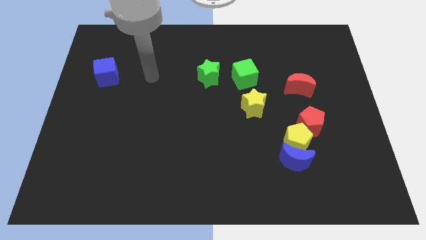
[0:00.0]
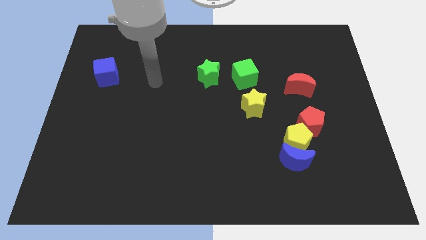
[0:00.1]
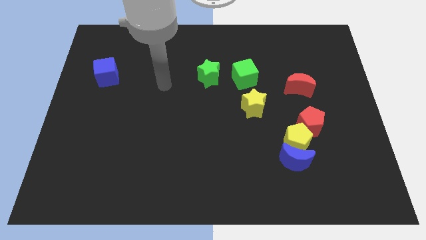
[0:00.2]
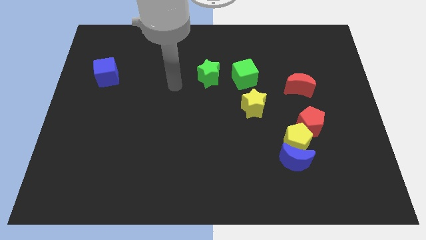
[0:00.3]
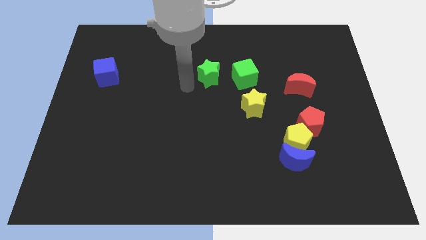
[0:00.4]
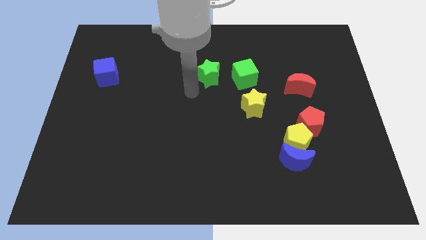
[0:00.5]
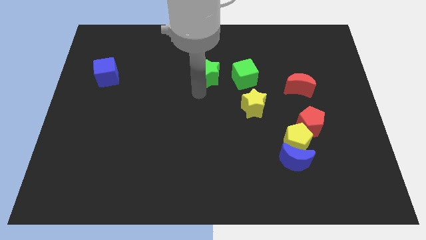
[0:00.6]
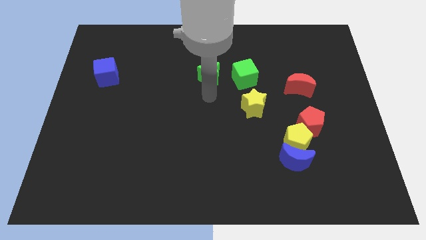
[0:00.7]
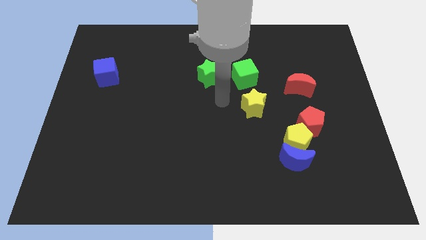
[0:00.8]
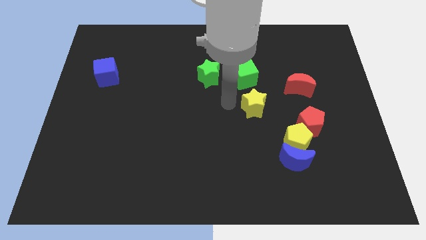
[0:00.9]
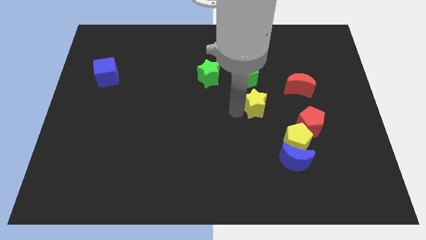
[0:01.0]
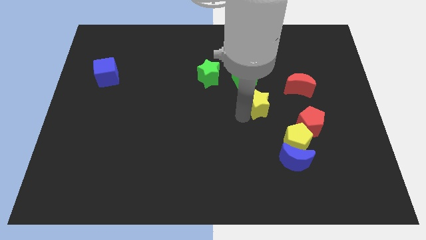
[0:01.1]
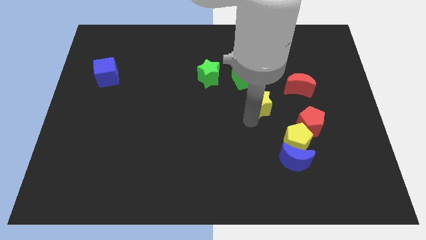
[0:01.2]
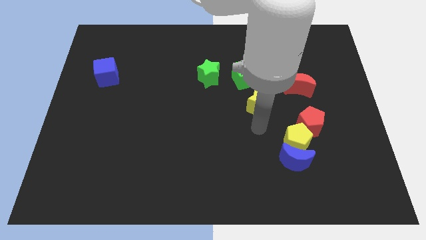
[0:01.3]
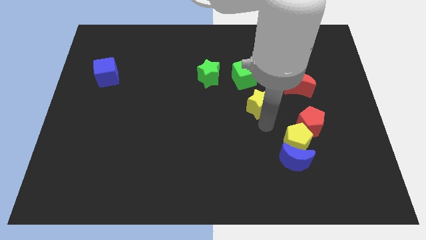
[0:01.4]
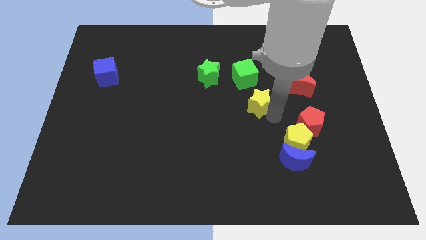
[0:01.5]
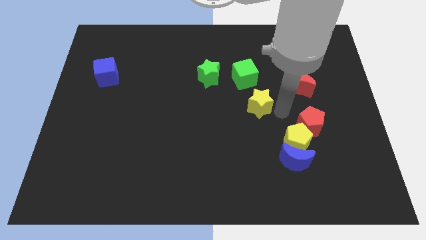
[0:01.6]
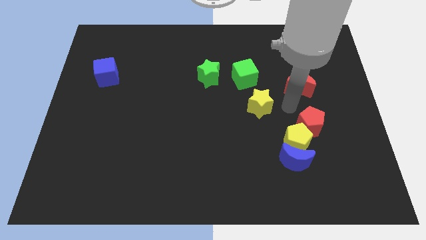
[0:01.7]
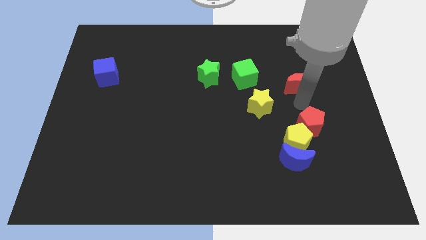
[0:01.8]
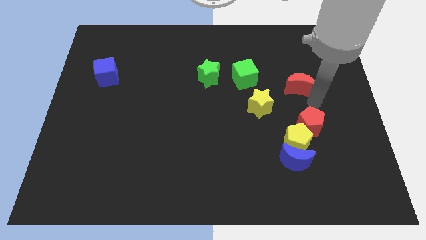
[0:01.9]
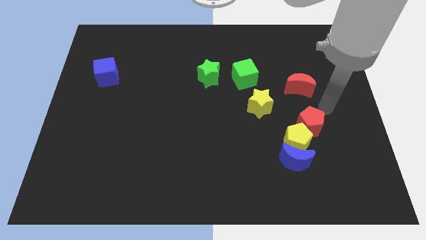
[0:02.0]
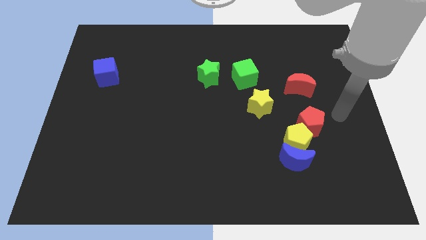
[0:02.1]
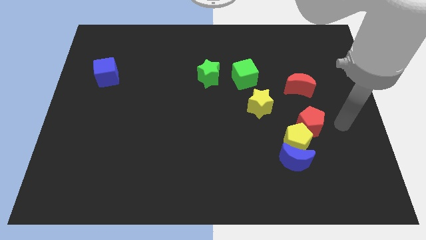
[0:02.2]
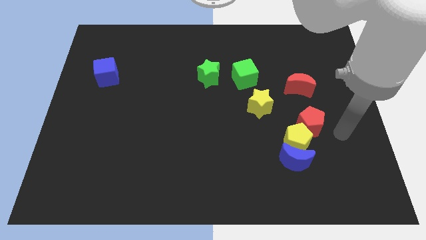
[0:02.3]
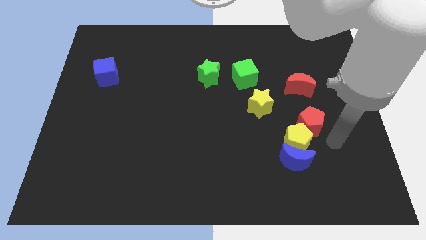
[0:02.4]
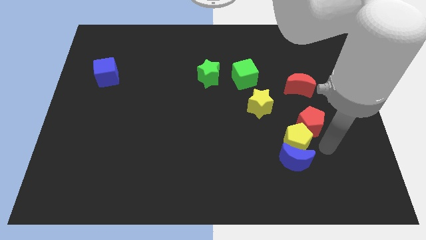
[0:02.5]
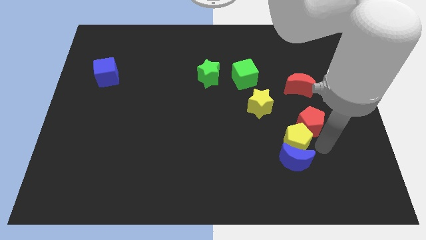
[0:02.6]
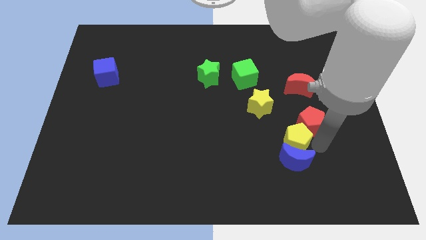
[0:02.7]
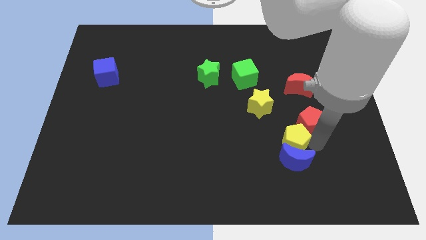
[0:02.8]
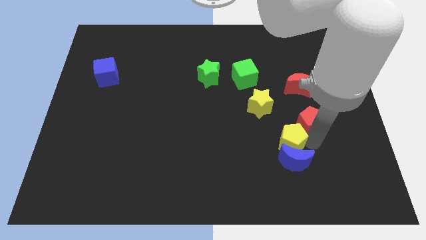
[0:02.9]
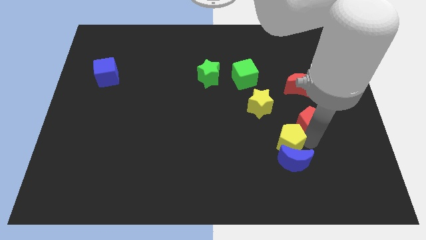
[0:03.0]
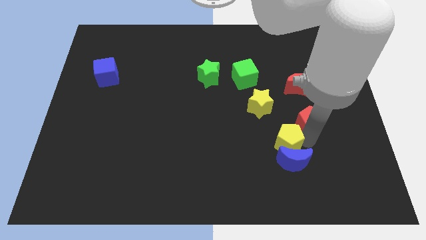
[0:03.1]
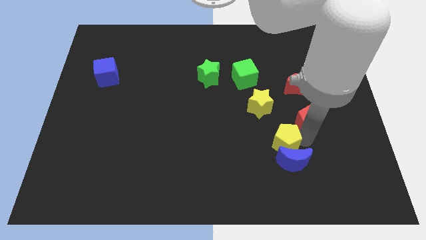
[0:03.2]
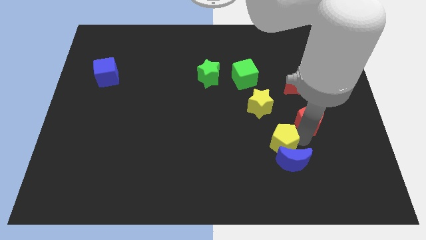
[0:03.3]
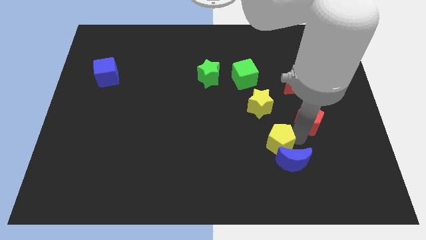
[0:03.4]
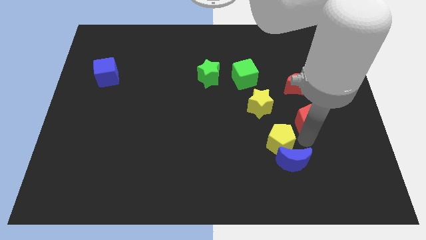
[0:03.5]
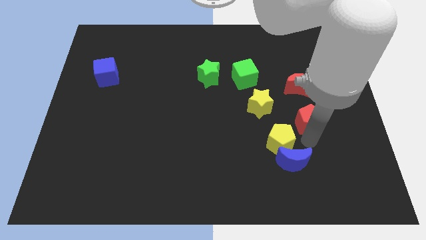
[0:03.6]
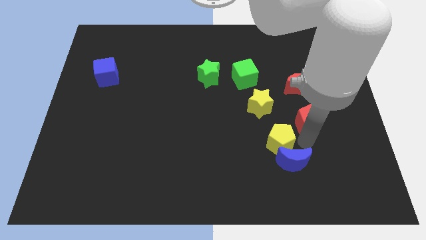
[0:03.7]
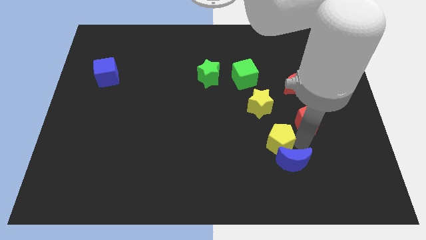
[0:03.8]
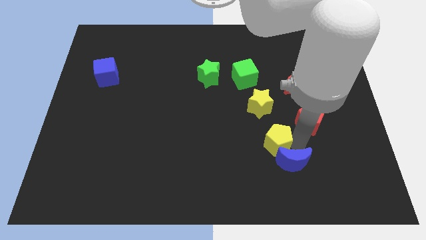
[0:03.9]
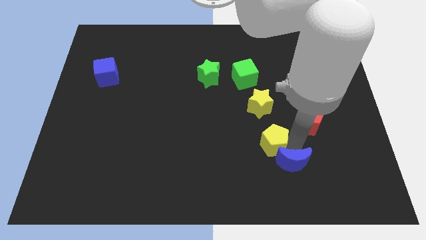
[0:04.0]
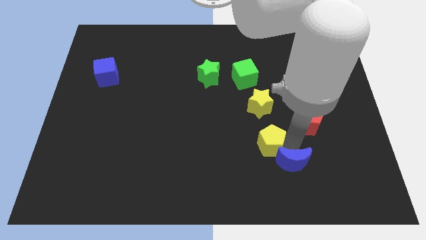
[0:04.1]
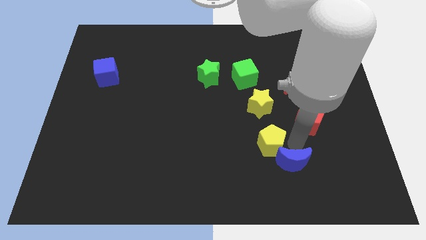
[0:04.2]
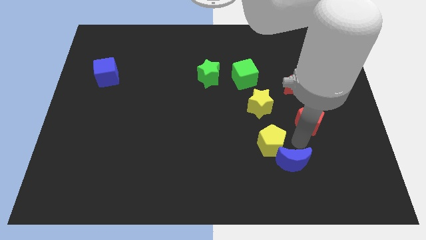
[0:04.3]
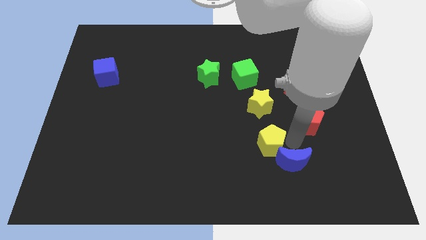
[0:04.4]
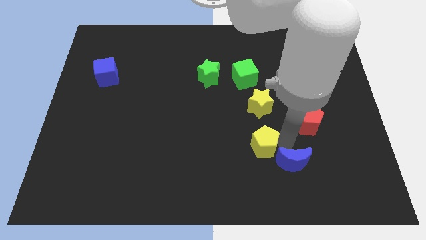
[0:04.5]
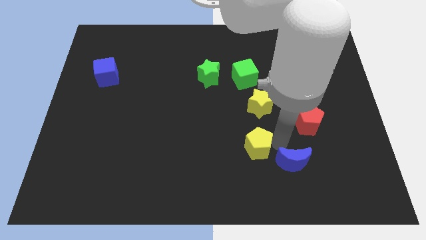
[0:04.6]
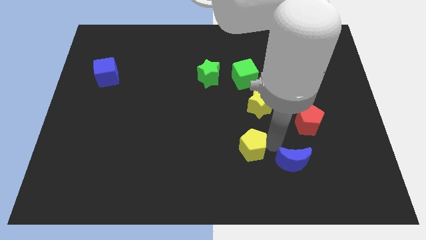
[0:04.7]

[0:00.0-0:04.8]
pull the yellow pentagon apart from the blue moon and red pentagon

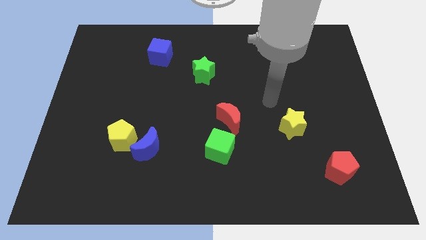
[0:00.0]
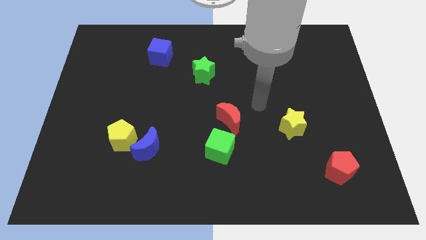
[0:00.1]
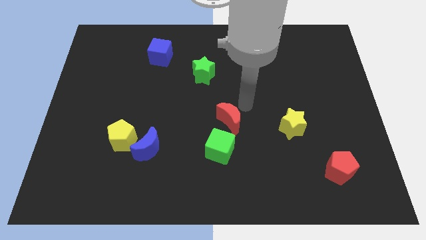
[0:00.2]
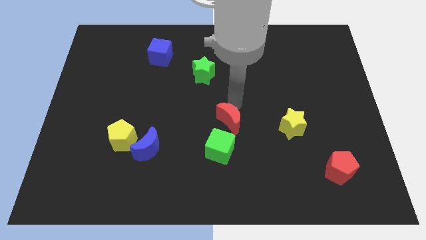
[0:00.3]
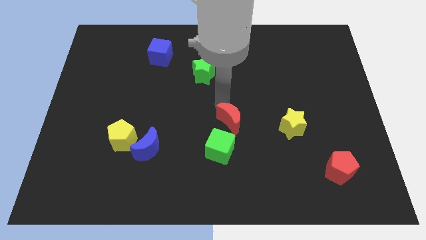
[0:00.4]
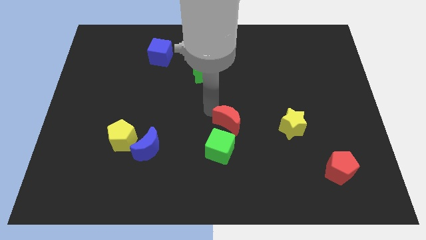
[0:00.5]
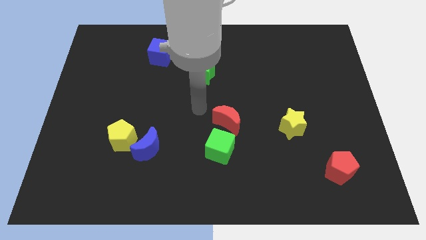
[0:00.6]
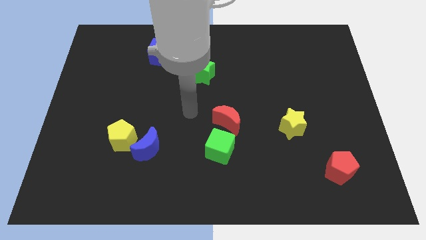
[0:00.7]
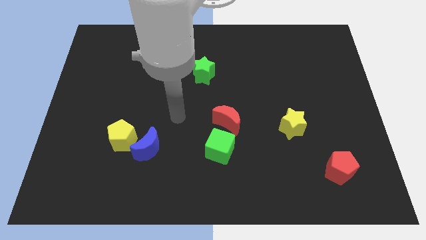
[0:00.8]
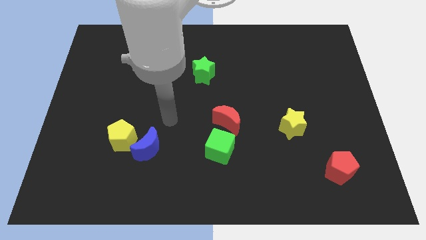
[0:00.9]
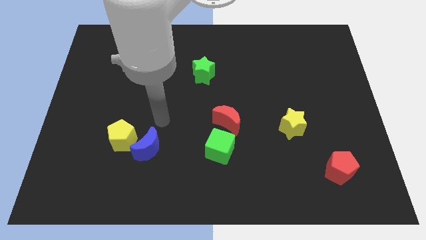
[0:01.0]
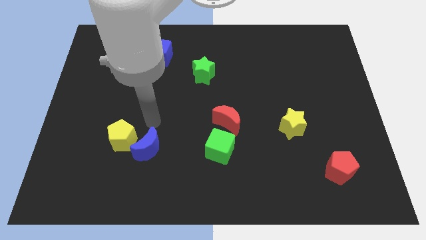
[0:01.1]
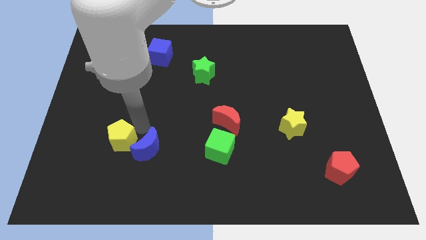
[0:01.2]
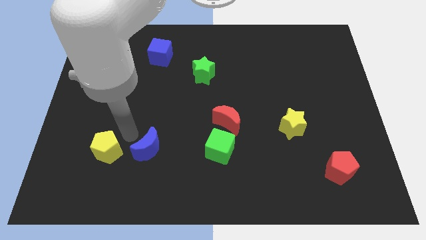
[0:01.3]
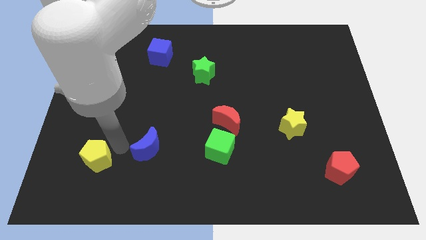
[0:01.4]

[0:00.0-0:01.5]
pull the blue moon apart from the yellow pentagon

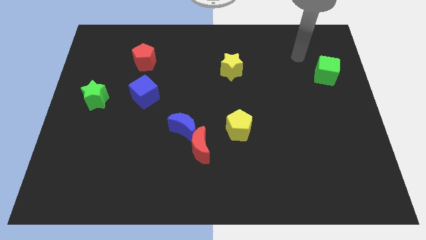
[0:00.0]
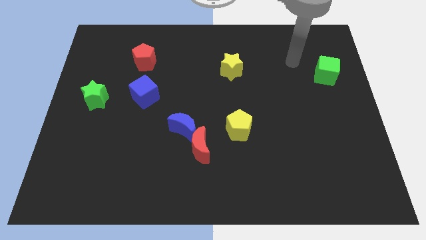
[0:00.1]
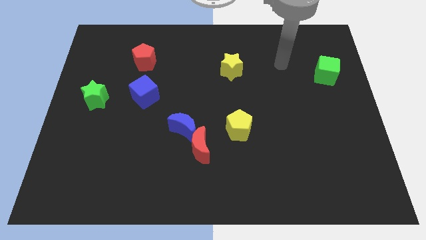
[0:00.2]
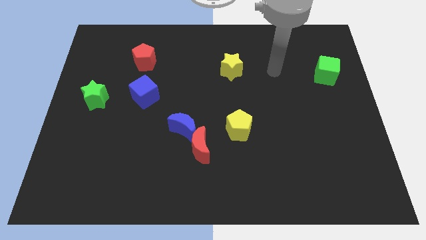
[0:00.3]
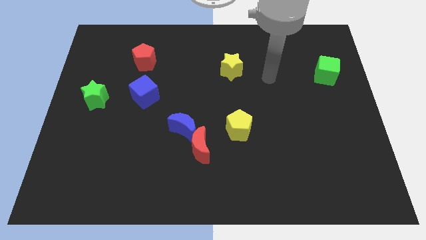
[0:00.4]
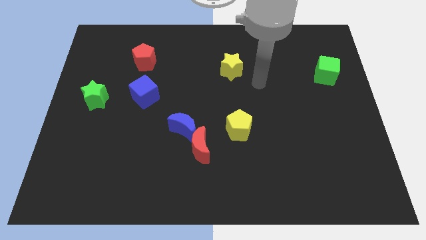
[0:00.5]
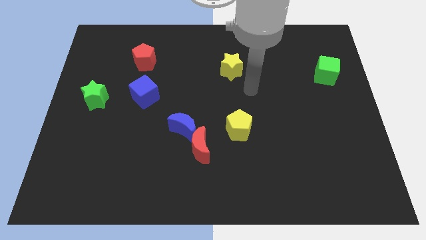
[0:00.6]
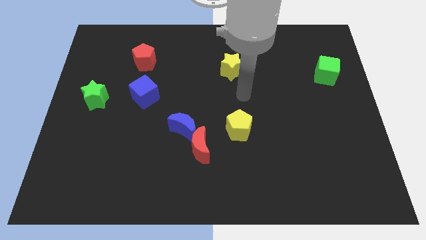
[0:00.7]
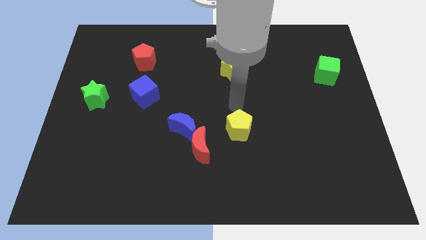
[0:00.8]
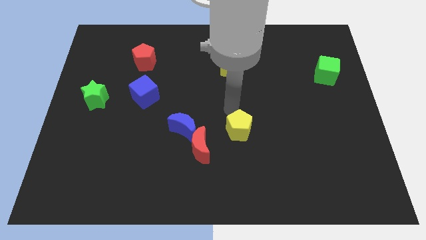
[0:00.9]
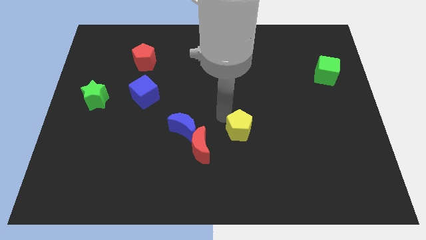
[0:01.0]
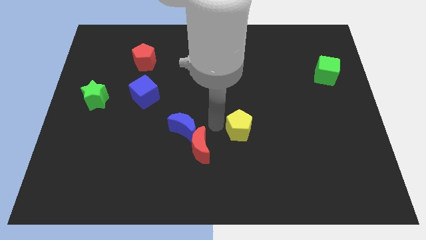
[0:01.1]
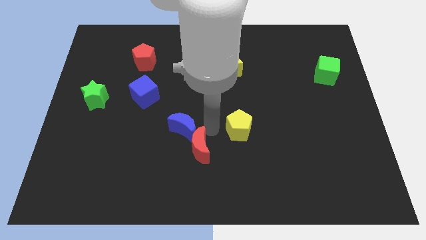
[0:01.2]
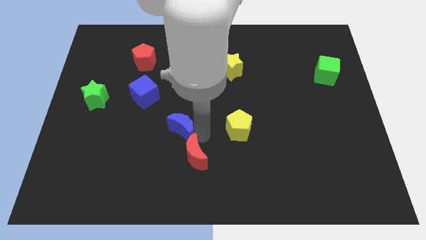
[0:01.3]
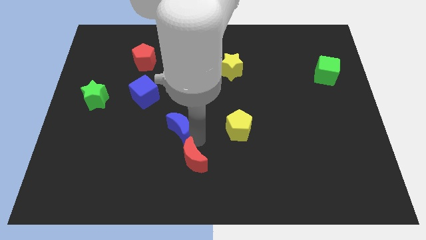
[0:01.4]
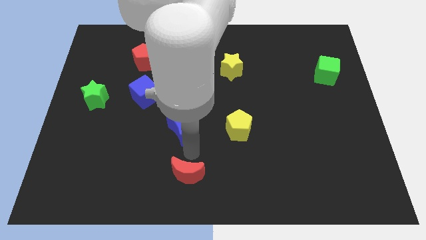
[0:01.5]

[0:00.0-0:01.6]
separate the blue moon from the red moon

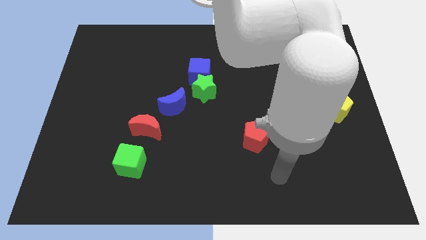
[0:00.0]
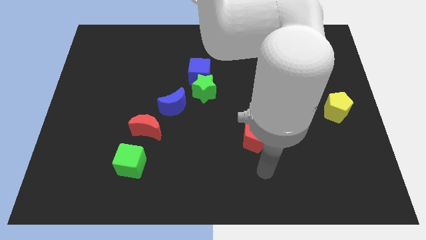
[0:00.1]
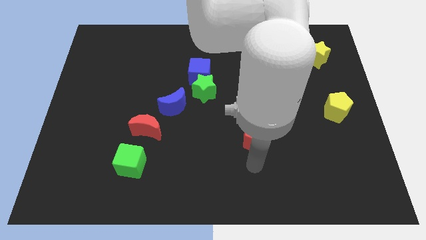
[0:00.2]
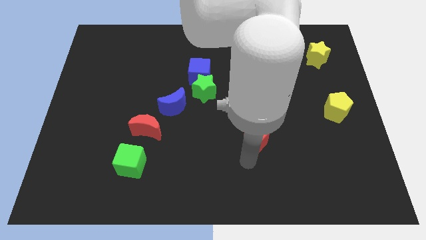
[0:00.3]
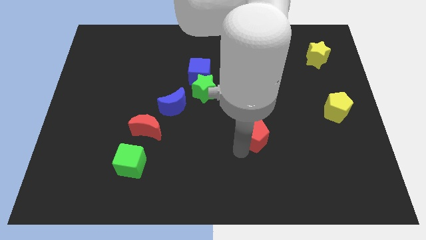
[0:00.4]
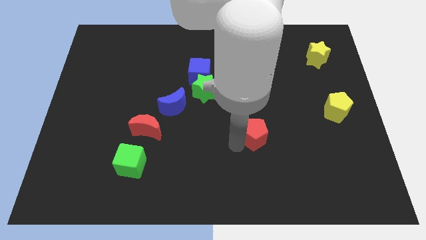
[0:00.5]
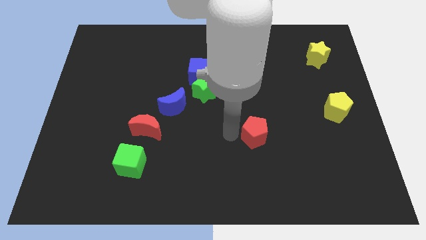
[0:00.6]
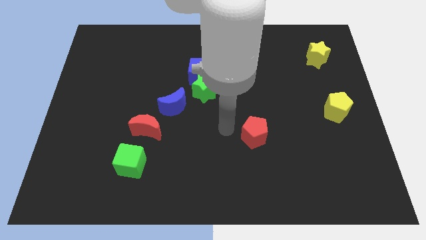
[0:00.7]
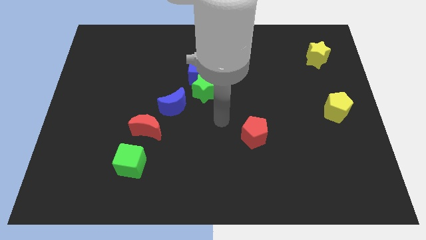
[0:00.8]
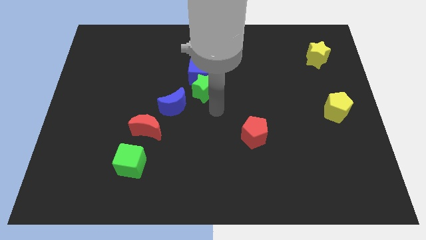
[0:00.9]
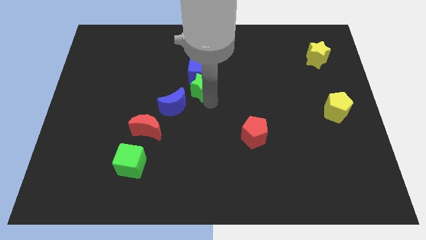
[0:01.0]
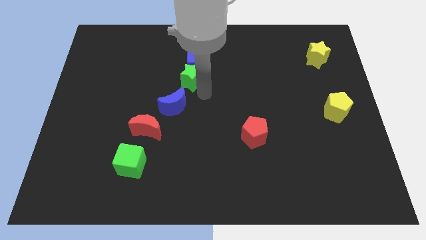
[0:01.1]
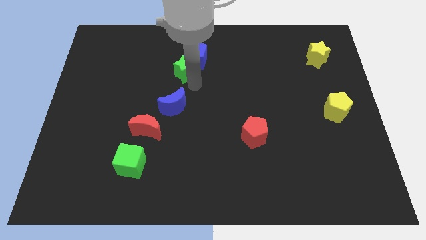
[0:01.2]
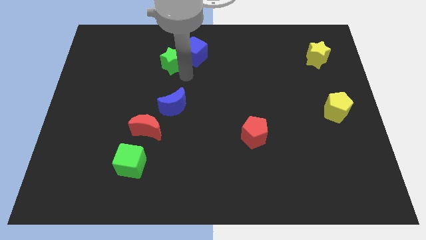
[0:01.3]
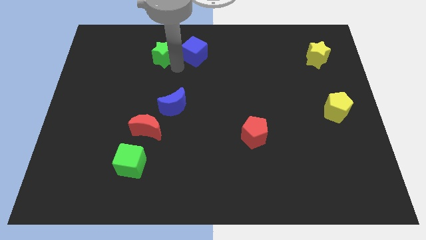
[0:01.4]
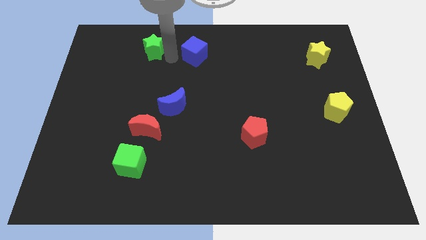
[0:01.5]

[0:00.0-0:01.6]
pull the blue cube apart from the green star
